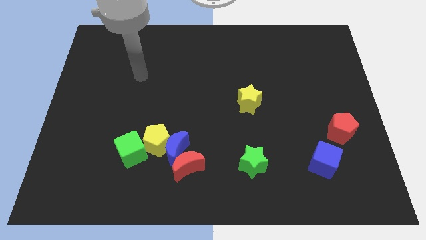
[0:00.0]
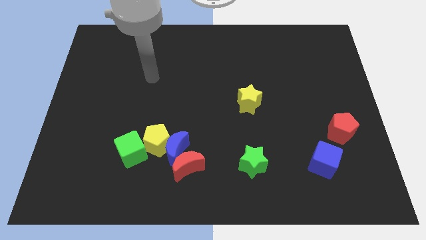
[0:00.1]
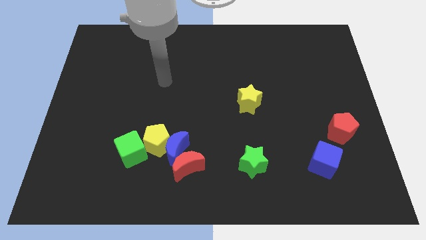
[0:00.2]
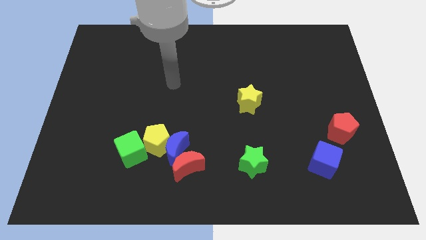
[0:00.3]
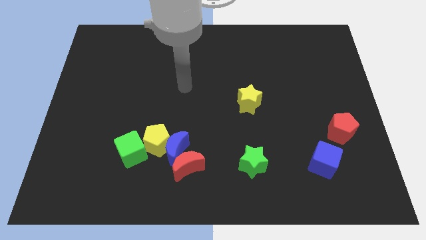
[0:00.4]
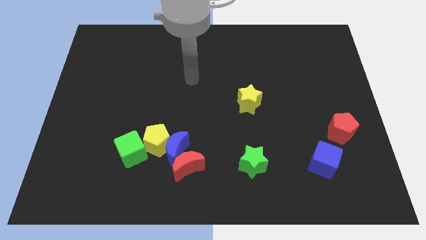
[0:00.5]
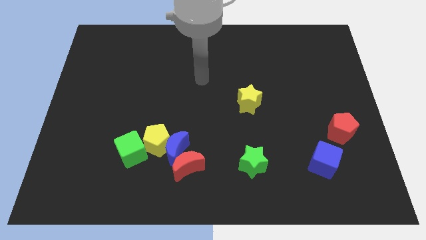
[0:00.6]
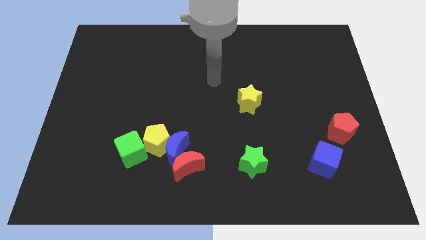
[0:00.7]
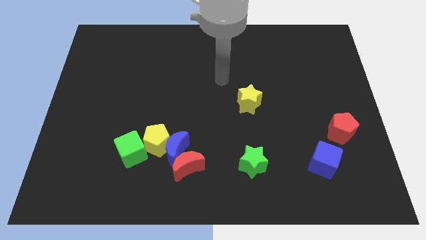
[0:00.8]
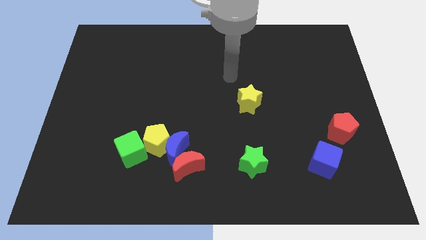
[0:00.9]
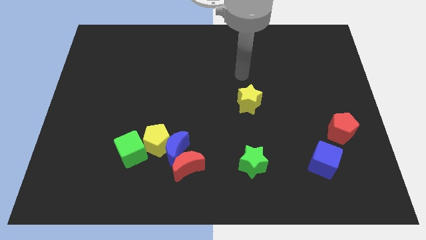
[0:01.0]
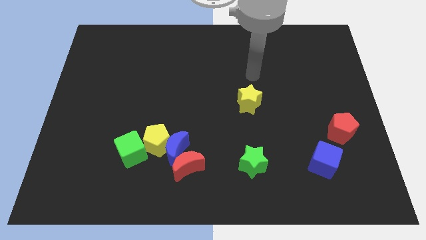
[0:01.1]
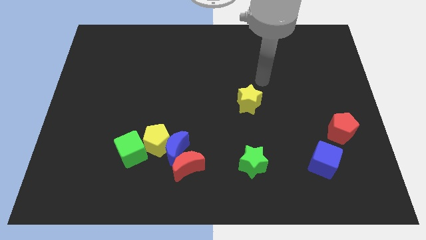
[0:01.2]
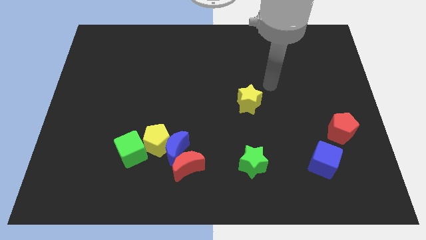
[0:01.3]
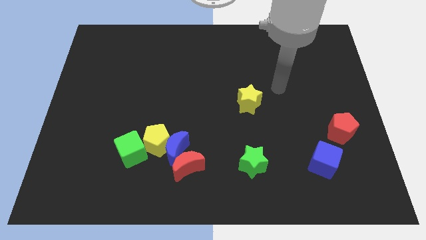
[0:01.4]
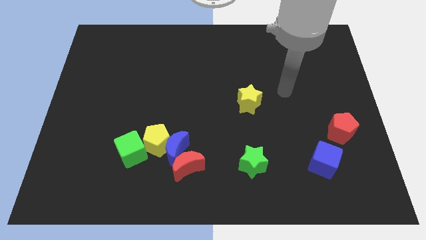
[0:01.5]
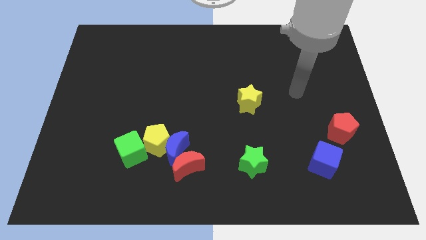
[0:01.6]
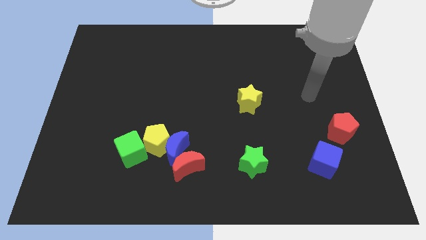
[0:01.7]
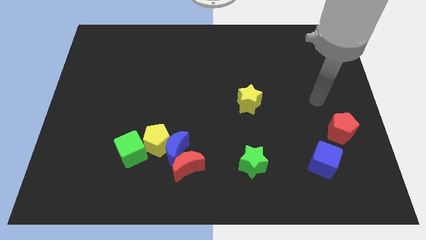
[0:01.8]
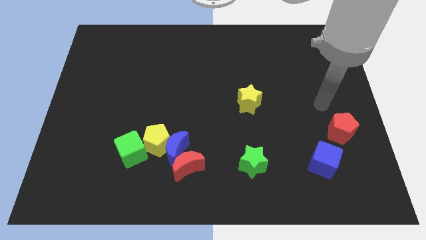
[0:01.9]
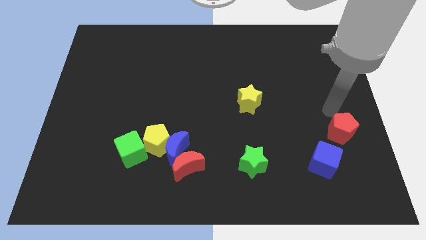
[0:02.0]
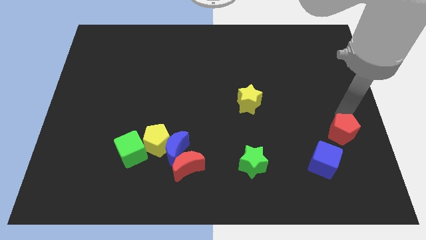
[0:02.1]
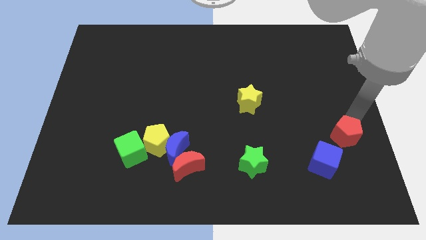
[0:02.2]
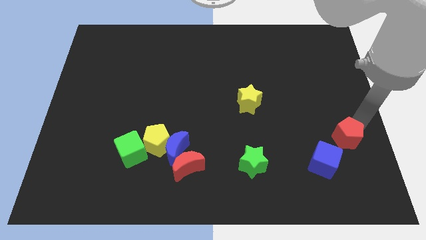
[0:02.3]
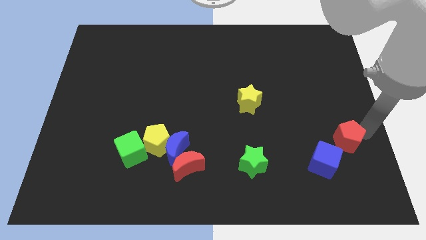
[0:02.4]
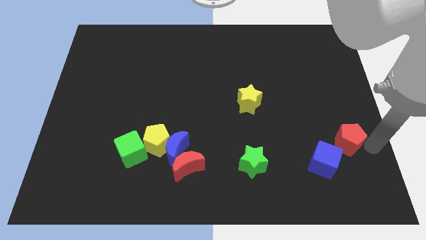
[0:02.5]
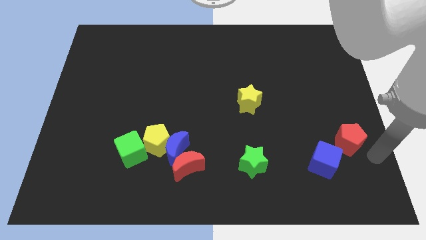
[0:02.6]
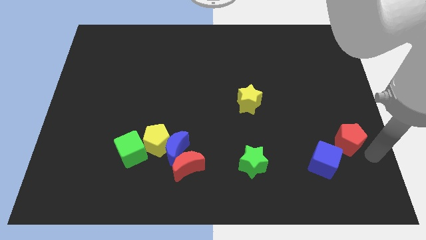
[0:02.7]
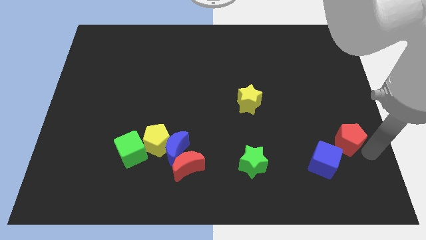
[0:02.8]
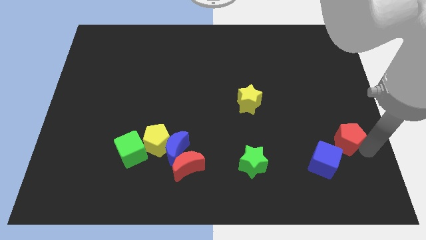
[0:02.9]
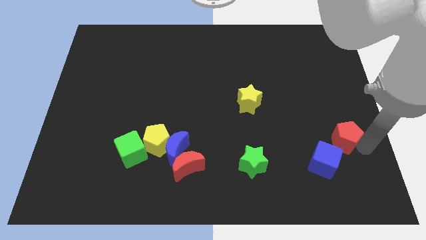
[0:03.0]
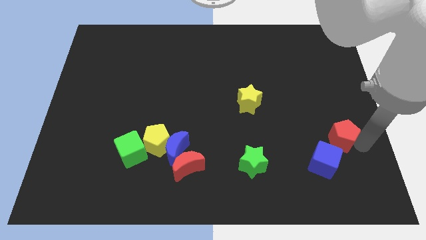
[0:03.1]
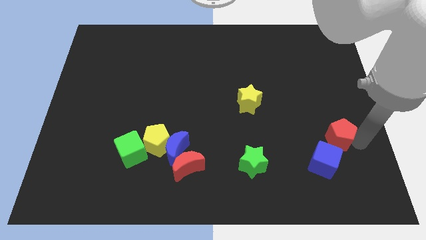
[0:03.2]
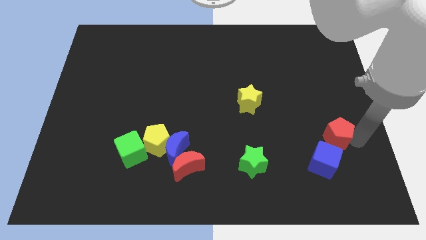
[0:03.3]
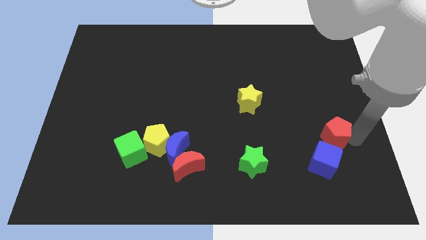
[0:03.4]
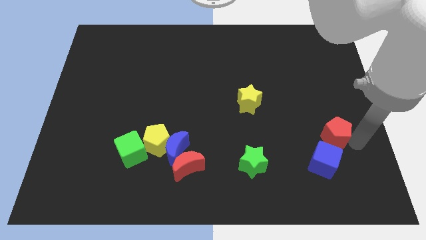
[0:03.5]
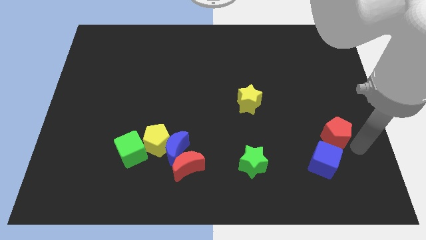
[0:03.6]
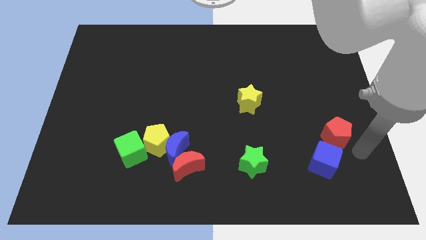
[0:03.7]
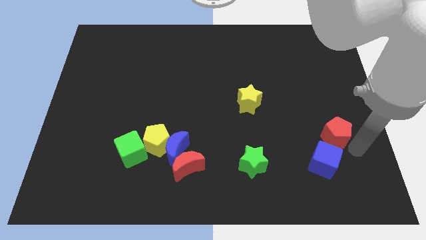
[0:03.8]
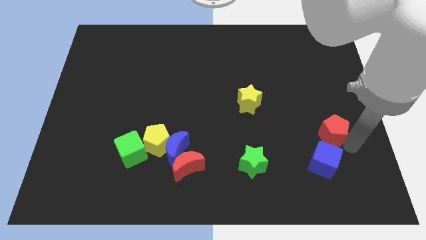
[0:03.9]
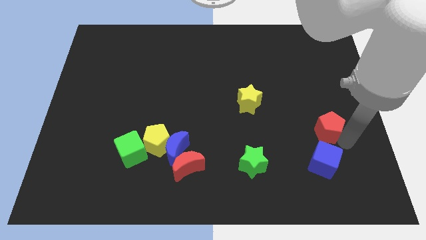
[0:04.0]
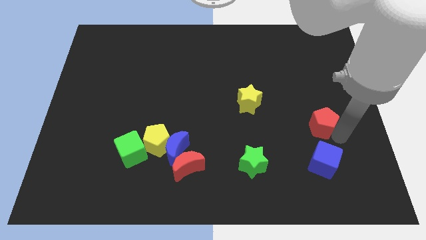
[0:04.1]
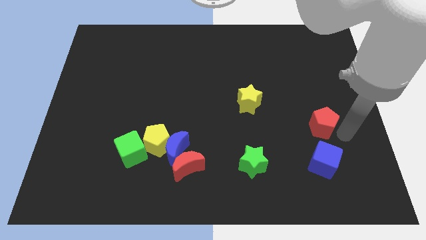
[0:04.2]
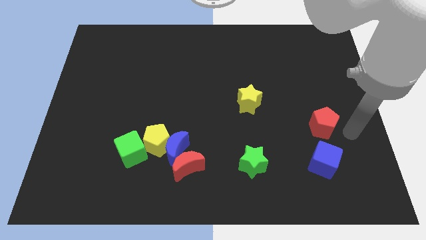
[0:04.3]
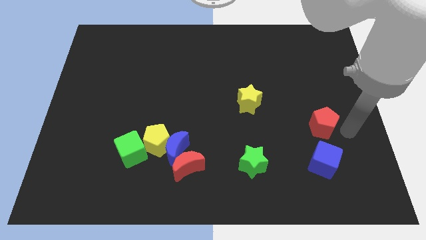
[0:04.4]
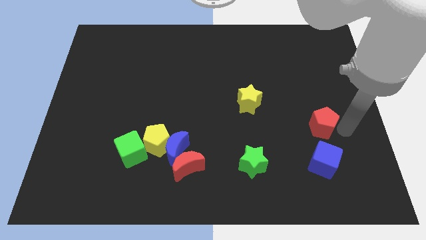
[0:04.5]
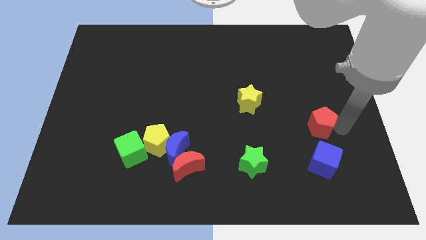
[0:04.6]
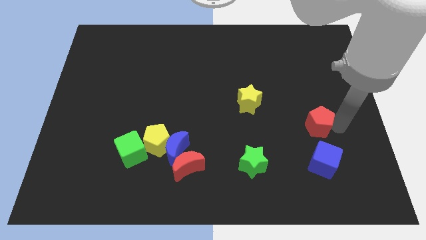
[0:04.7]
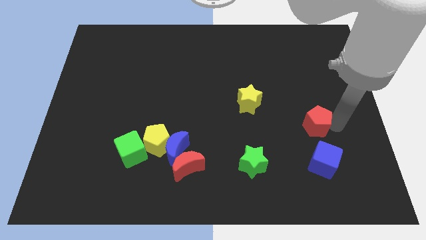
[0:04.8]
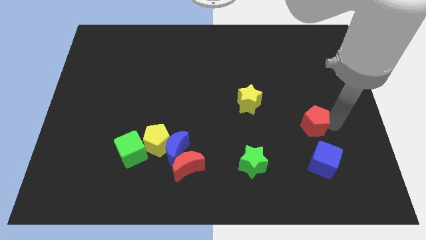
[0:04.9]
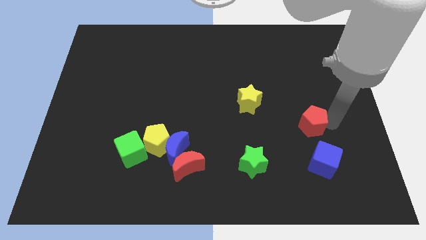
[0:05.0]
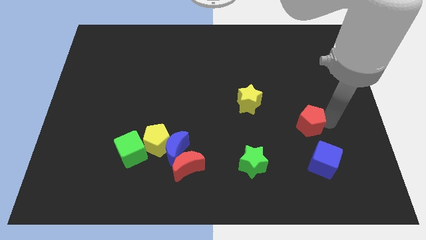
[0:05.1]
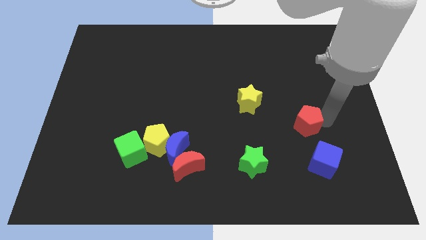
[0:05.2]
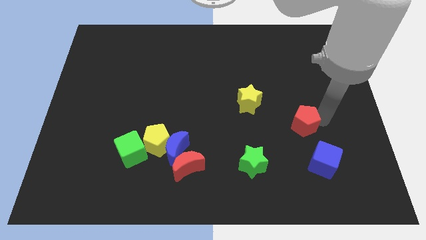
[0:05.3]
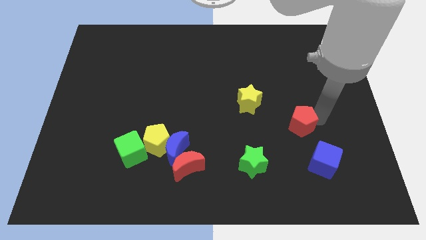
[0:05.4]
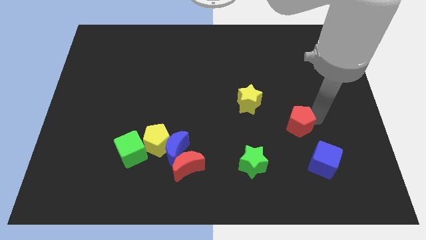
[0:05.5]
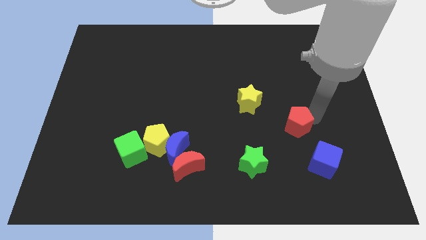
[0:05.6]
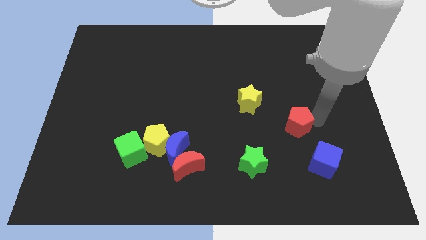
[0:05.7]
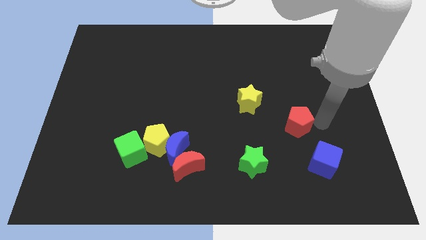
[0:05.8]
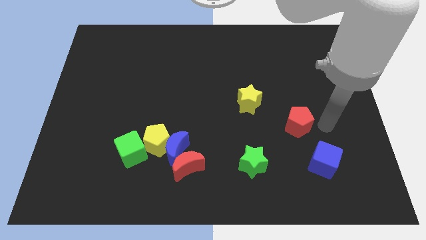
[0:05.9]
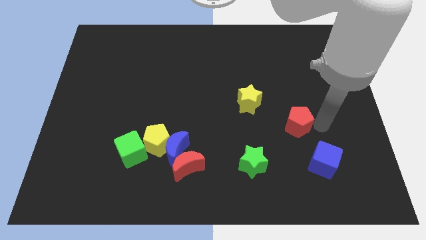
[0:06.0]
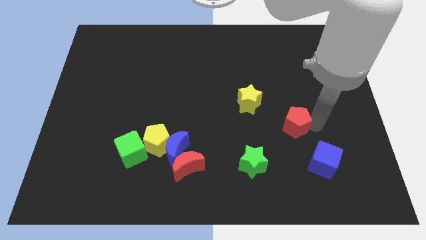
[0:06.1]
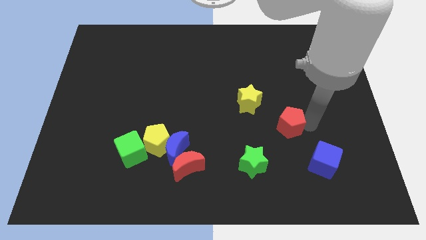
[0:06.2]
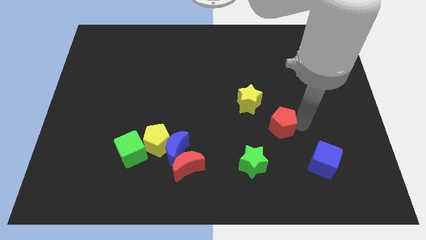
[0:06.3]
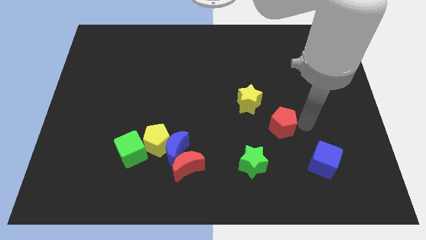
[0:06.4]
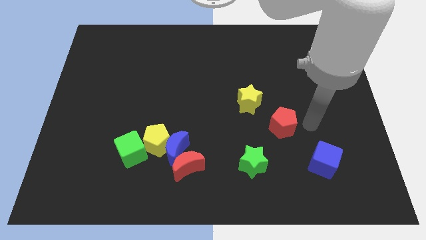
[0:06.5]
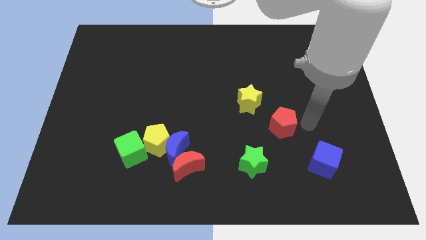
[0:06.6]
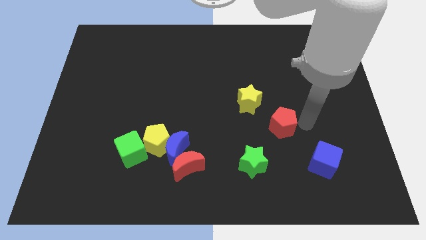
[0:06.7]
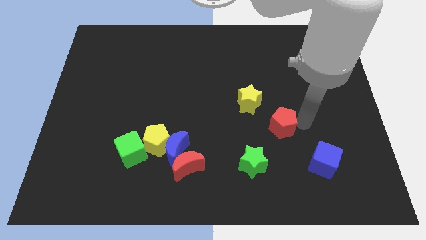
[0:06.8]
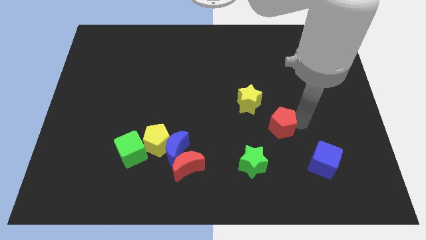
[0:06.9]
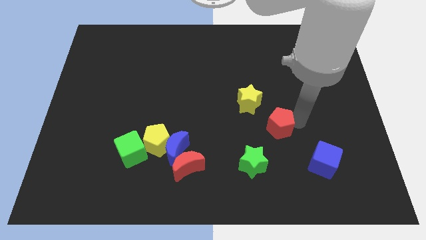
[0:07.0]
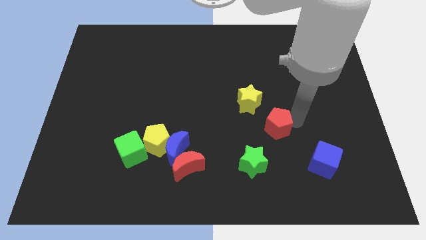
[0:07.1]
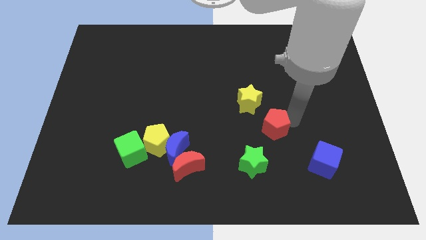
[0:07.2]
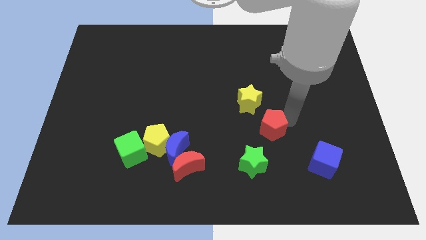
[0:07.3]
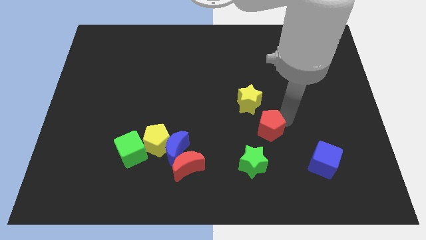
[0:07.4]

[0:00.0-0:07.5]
push the red pentagon to the top of the green star
